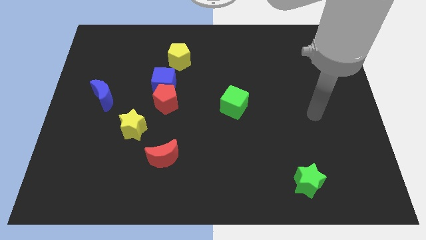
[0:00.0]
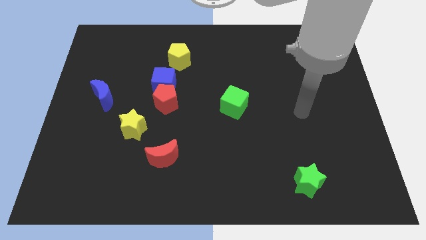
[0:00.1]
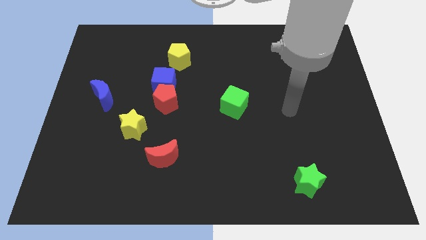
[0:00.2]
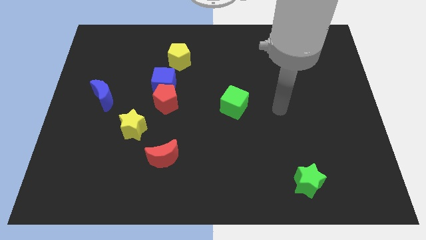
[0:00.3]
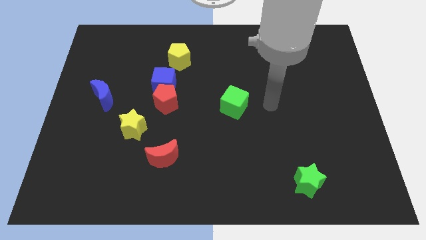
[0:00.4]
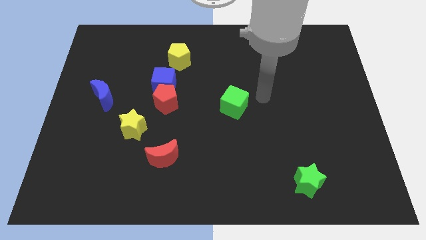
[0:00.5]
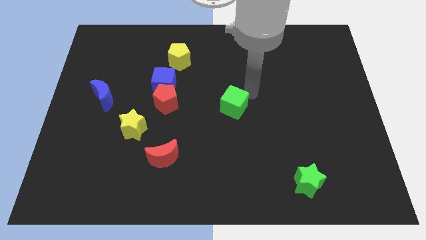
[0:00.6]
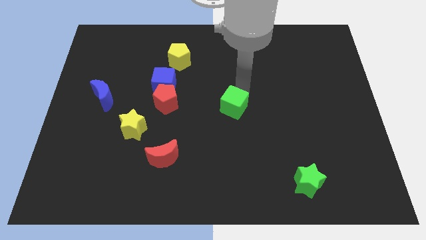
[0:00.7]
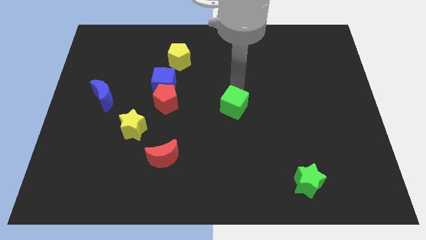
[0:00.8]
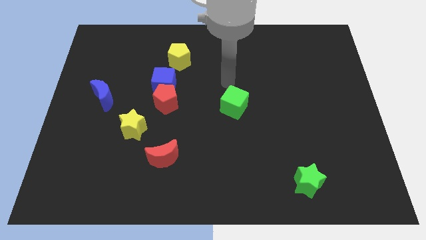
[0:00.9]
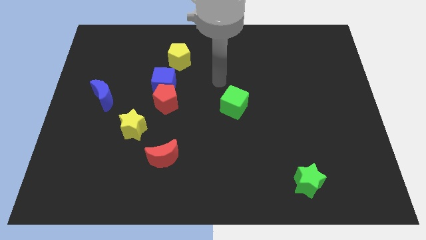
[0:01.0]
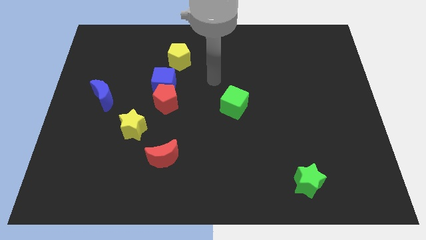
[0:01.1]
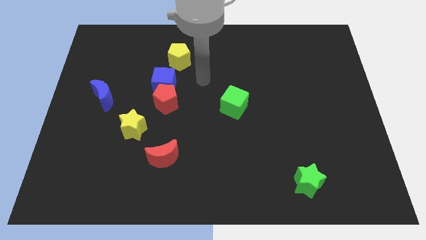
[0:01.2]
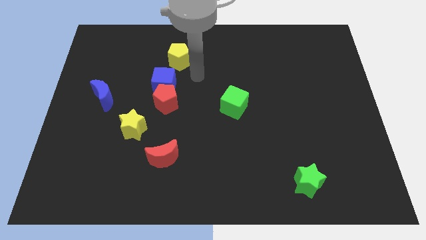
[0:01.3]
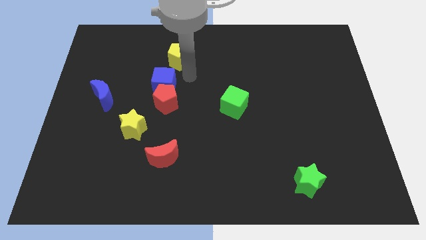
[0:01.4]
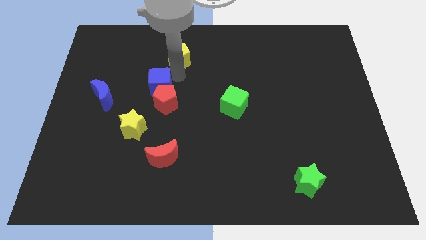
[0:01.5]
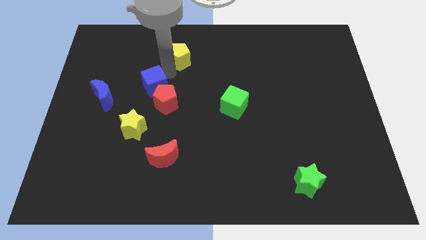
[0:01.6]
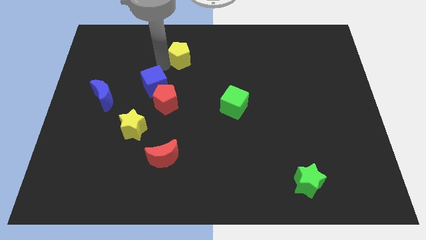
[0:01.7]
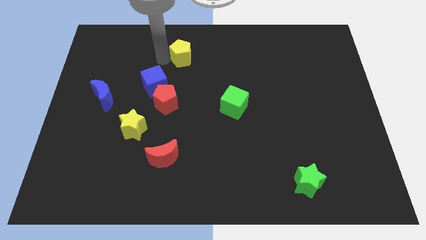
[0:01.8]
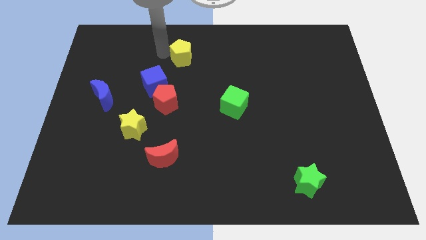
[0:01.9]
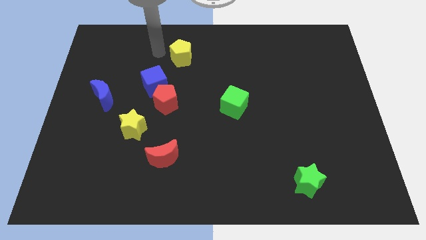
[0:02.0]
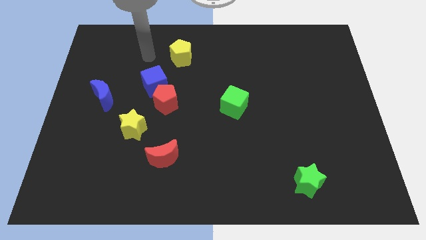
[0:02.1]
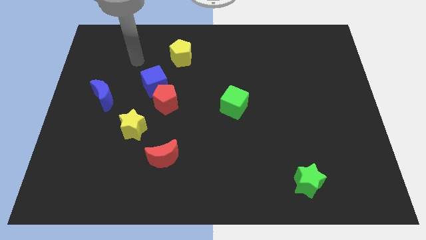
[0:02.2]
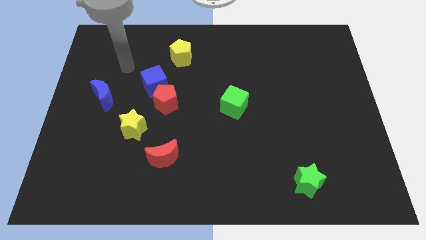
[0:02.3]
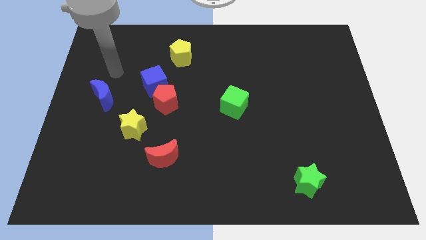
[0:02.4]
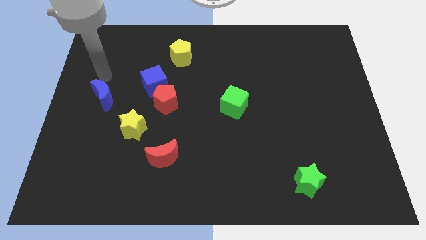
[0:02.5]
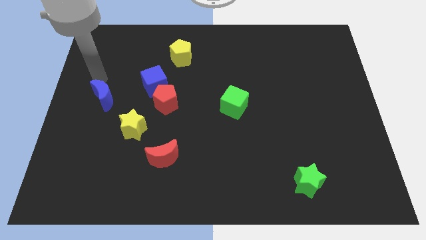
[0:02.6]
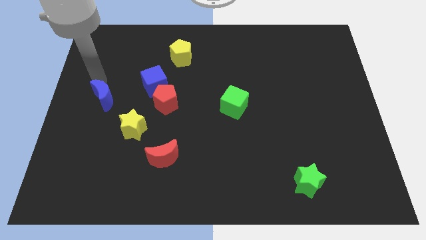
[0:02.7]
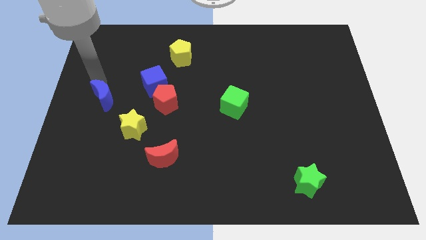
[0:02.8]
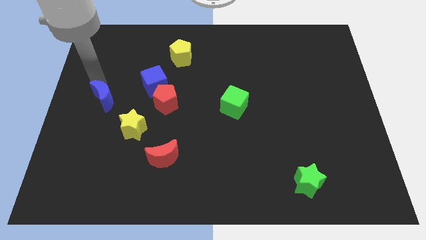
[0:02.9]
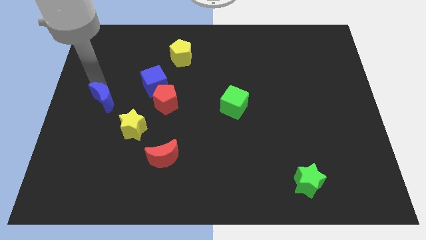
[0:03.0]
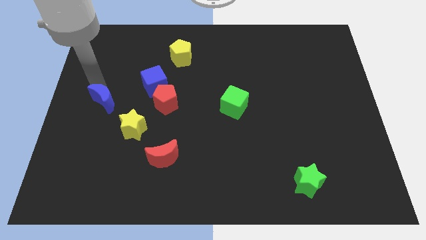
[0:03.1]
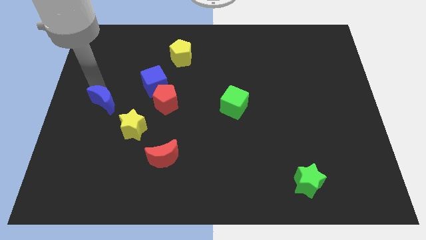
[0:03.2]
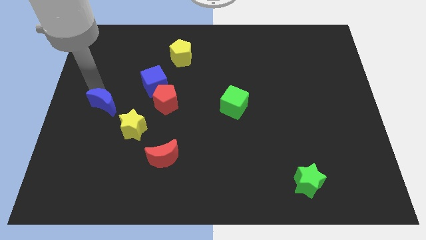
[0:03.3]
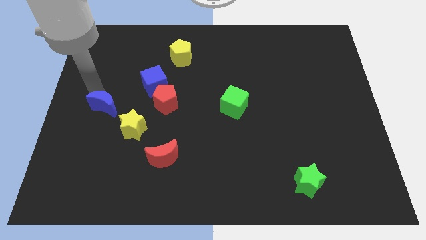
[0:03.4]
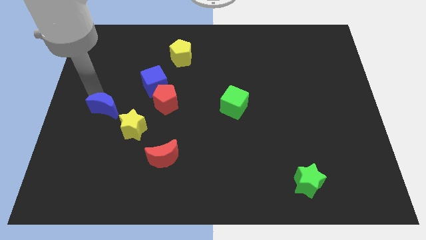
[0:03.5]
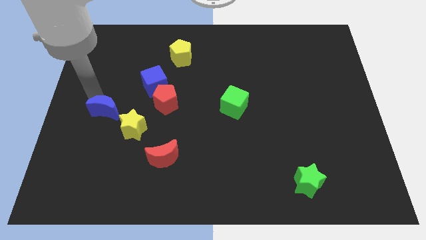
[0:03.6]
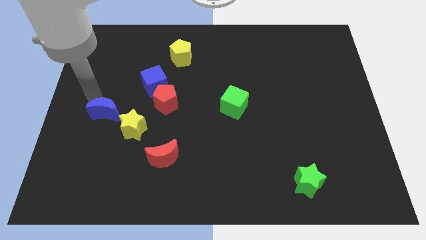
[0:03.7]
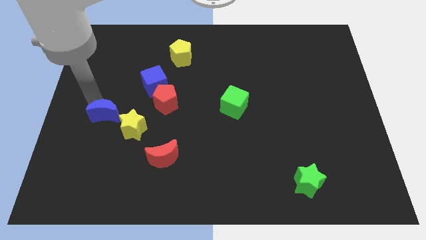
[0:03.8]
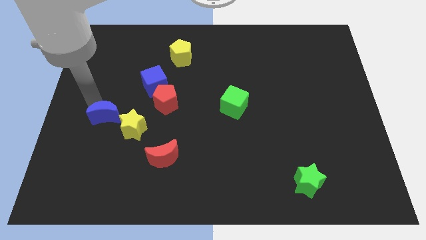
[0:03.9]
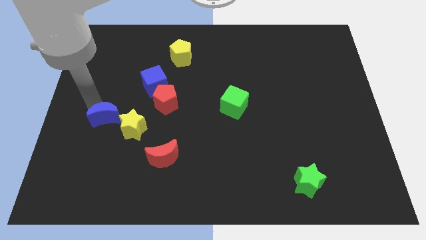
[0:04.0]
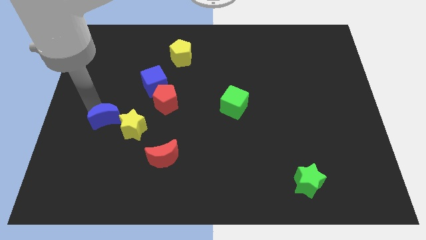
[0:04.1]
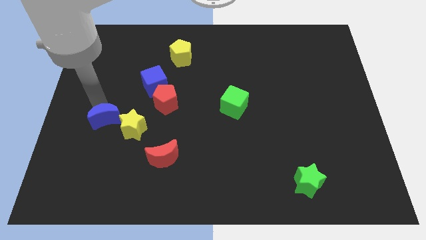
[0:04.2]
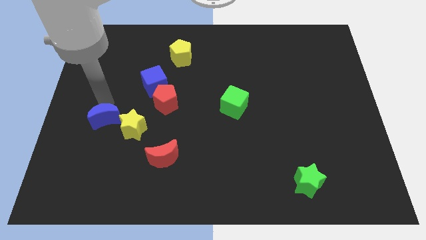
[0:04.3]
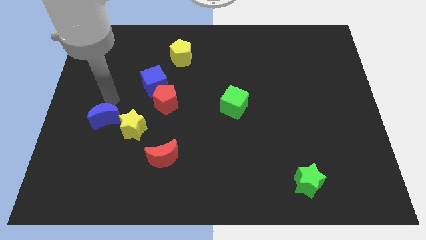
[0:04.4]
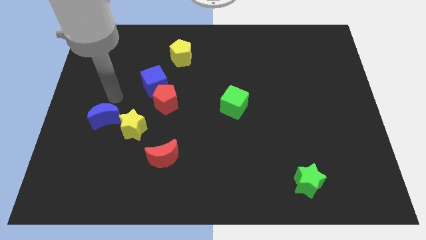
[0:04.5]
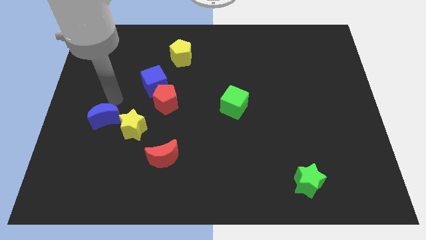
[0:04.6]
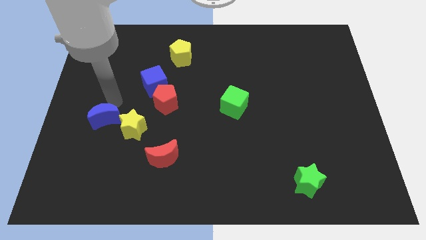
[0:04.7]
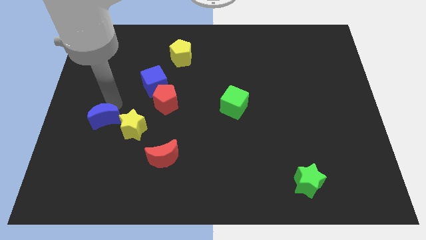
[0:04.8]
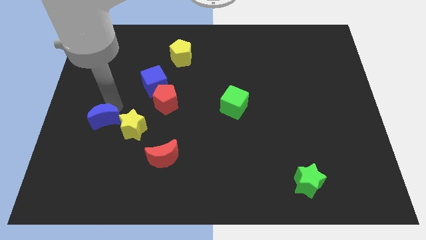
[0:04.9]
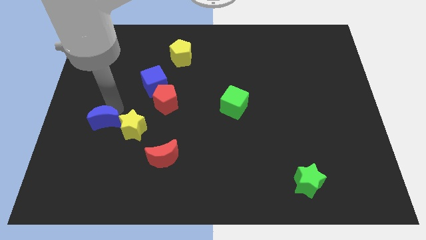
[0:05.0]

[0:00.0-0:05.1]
slightly move the blue moon downwards

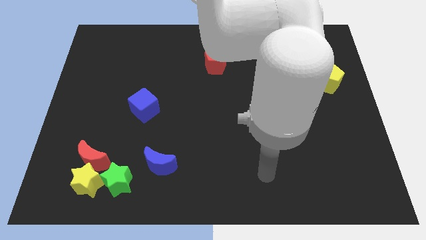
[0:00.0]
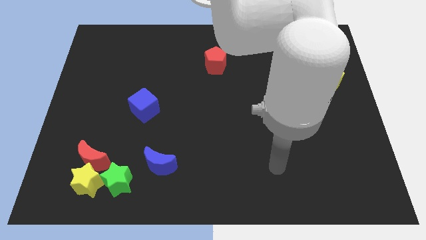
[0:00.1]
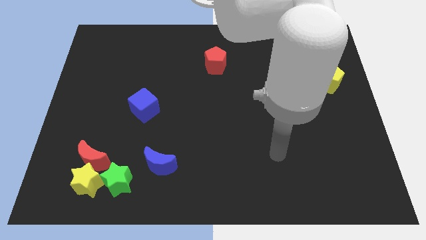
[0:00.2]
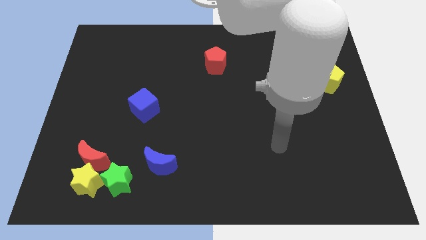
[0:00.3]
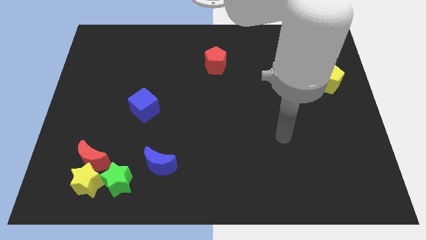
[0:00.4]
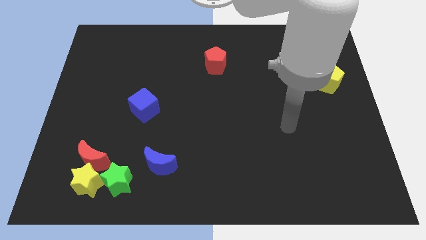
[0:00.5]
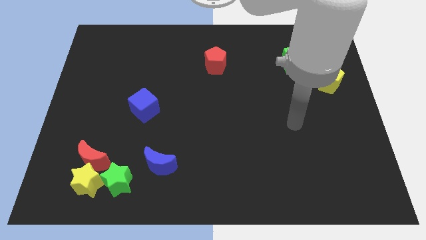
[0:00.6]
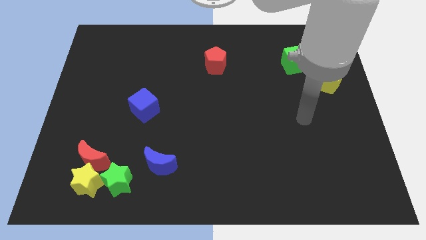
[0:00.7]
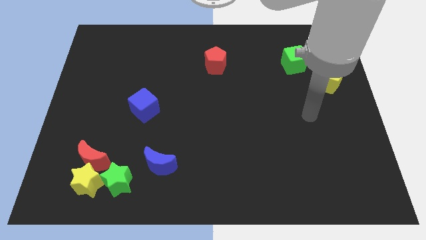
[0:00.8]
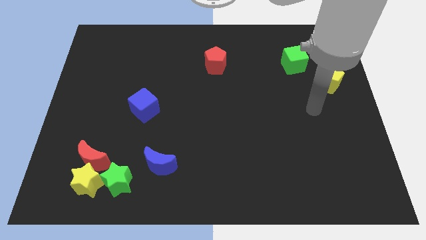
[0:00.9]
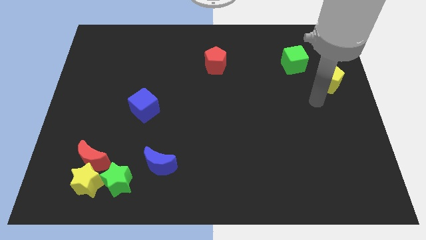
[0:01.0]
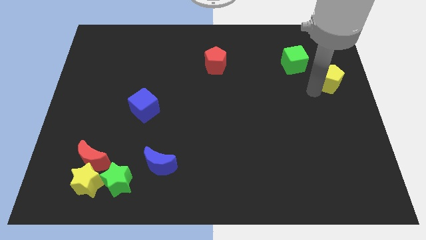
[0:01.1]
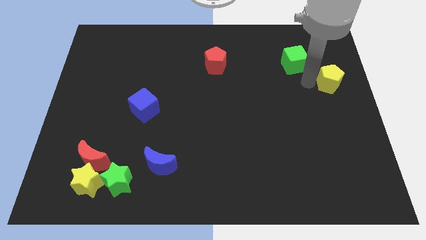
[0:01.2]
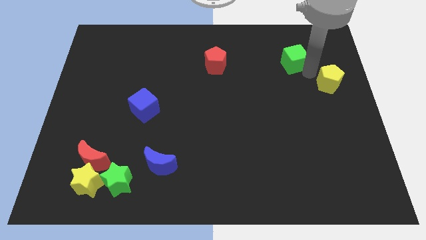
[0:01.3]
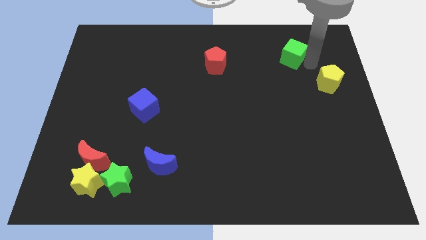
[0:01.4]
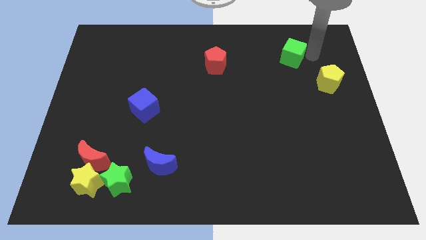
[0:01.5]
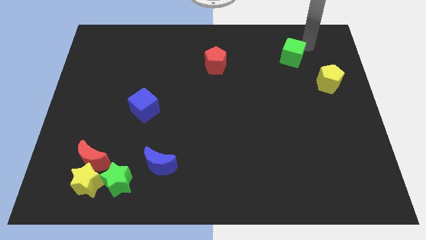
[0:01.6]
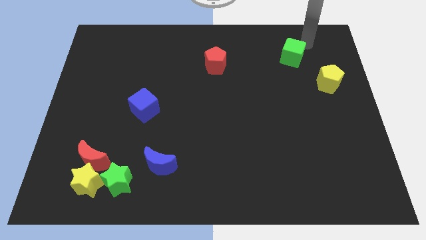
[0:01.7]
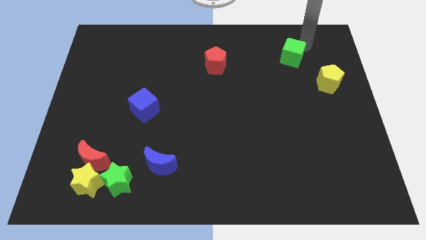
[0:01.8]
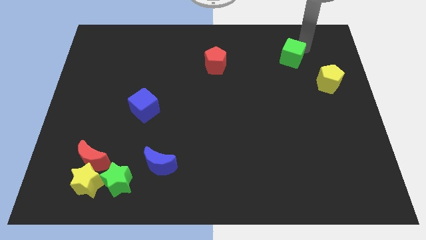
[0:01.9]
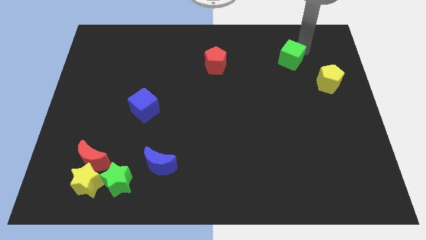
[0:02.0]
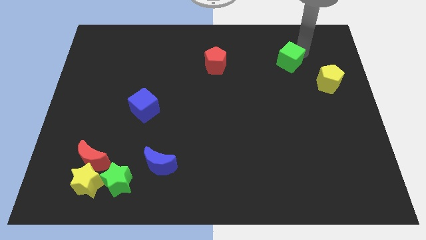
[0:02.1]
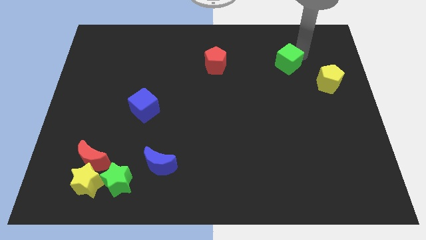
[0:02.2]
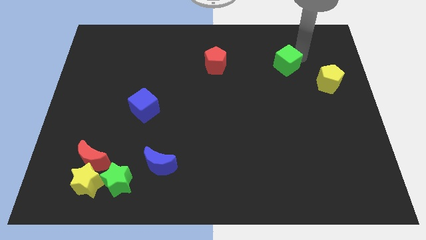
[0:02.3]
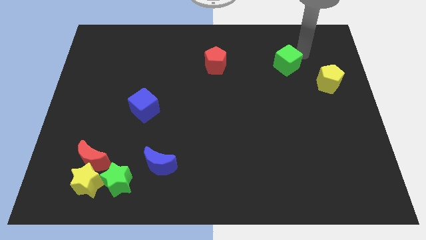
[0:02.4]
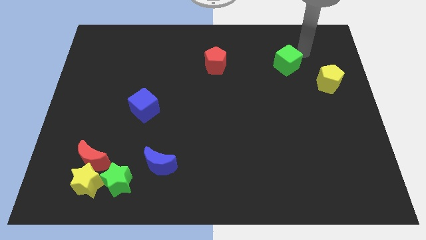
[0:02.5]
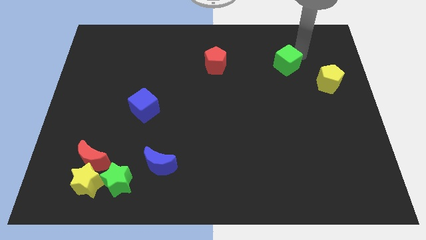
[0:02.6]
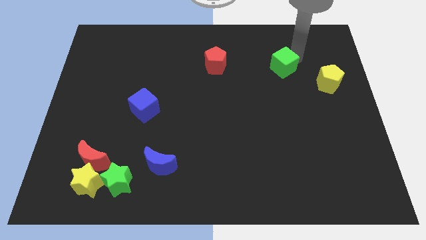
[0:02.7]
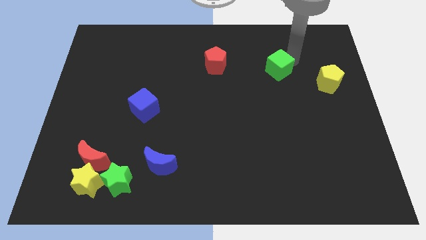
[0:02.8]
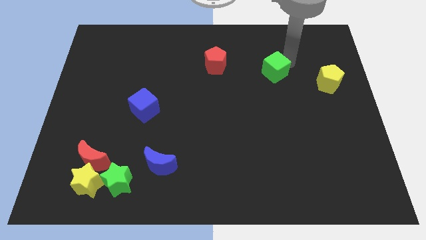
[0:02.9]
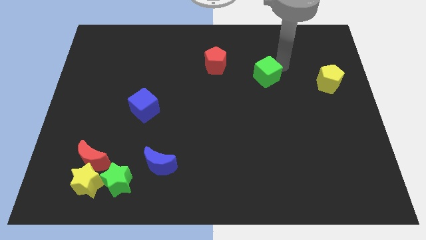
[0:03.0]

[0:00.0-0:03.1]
move the green cube downwards and to the left diagonally somewhat
